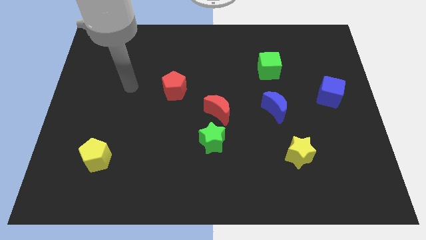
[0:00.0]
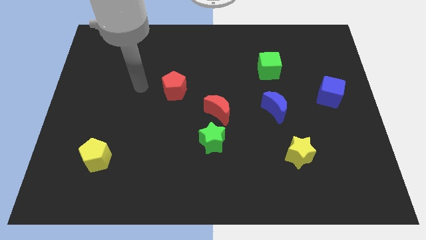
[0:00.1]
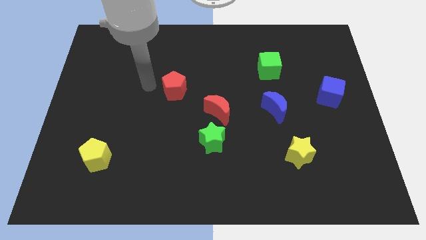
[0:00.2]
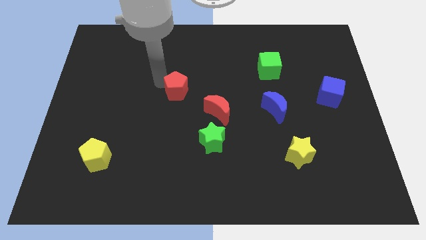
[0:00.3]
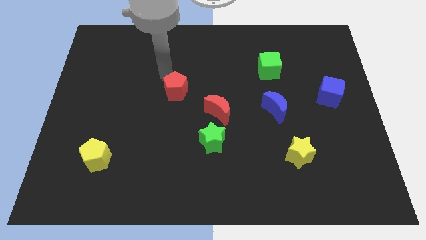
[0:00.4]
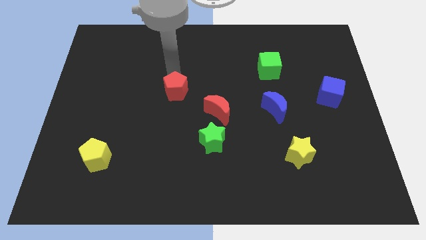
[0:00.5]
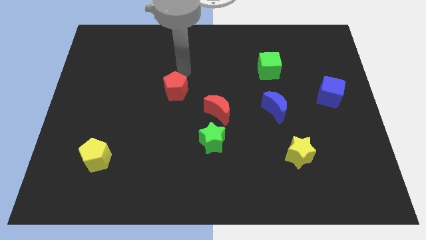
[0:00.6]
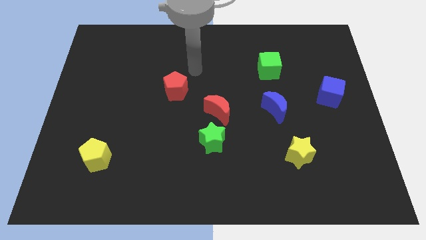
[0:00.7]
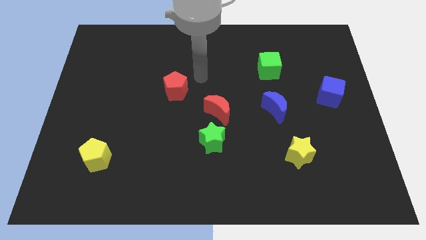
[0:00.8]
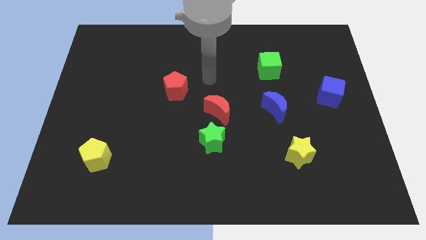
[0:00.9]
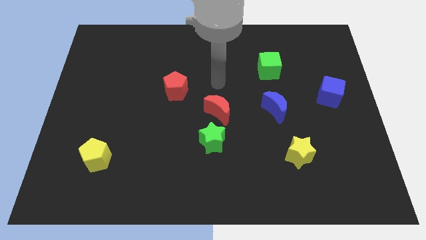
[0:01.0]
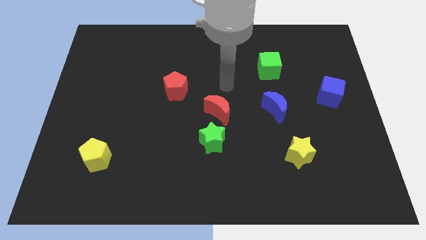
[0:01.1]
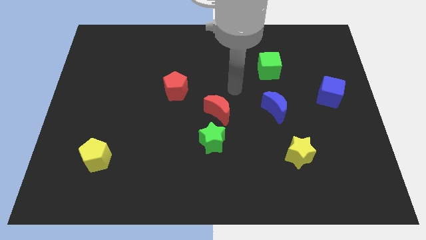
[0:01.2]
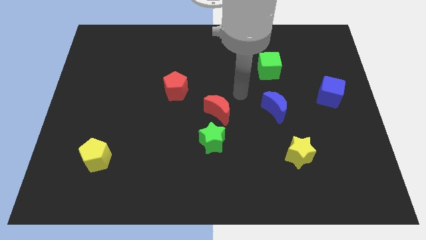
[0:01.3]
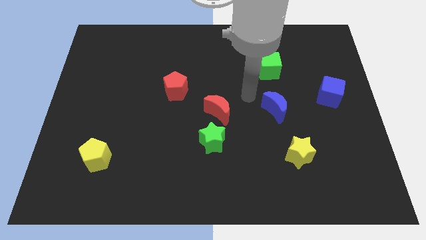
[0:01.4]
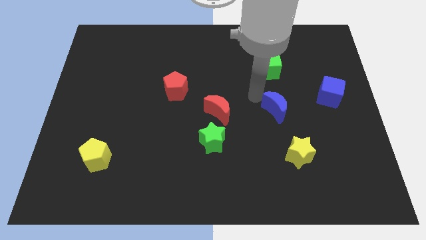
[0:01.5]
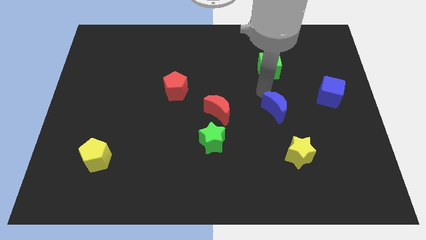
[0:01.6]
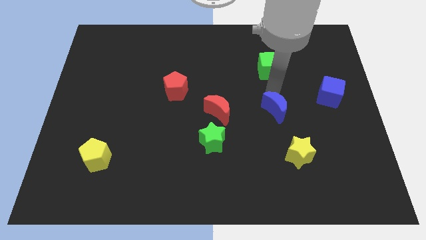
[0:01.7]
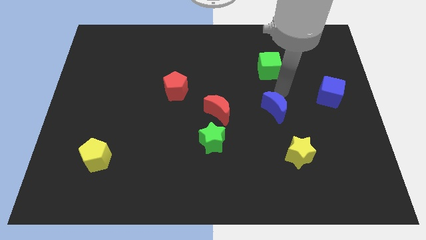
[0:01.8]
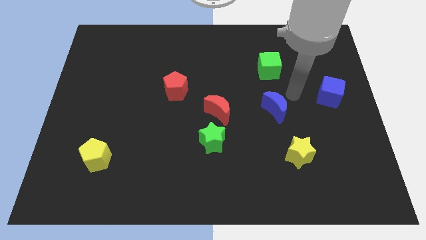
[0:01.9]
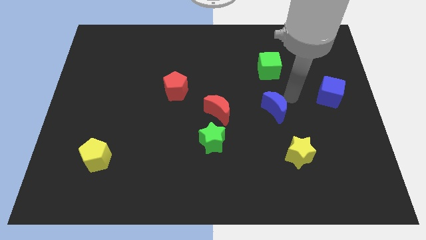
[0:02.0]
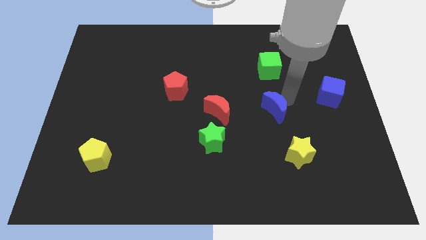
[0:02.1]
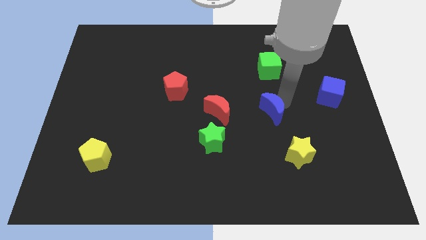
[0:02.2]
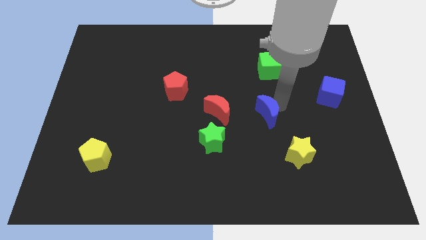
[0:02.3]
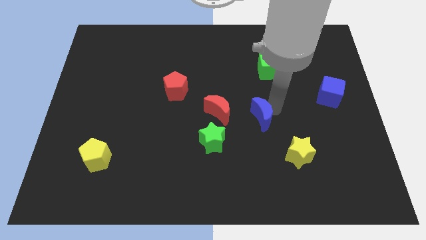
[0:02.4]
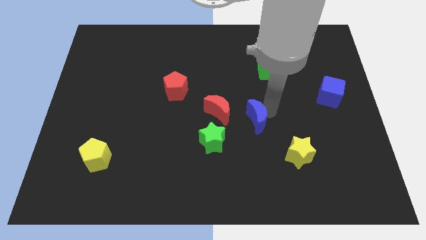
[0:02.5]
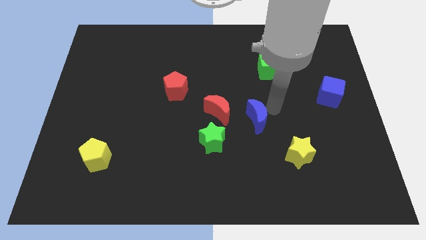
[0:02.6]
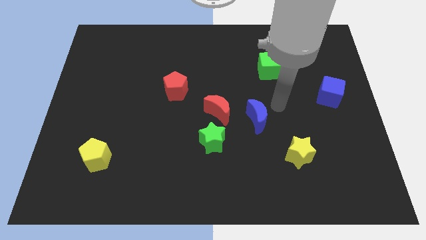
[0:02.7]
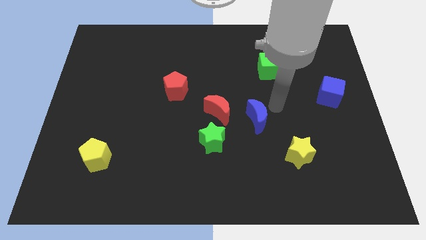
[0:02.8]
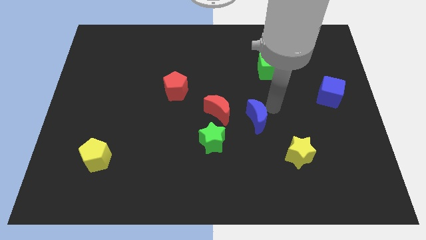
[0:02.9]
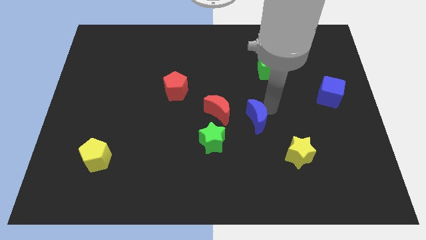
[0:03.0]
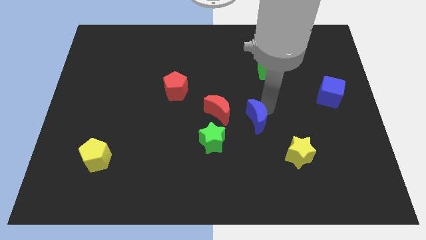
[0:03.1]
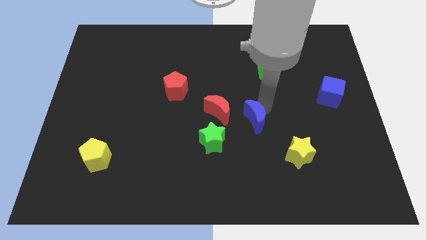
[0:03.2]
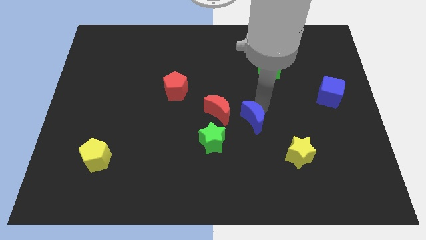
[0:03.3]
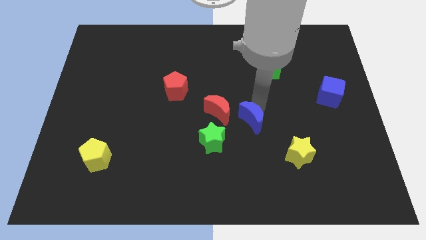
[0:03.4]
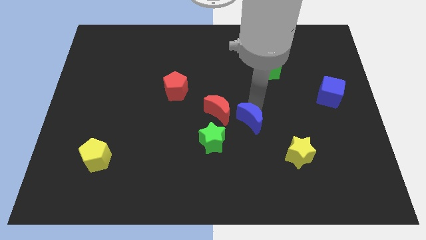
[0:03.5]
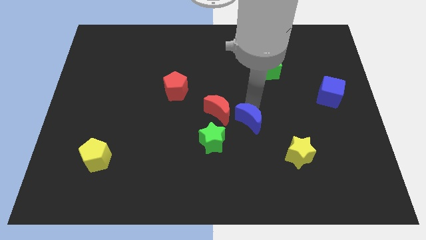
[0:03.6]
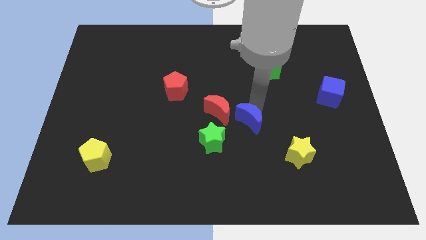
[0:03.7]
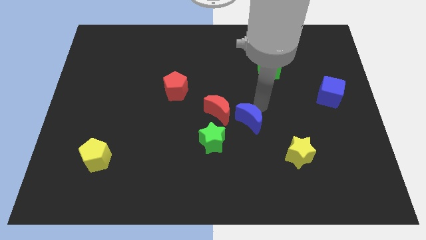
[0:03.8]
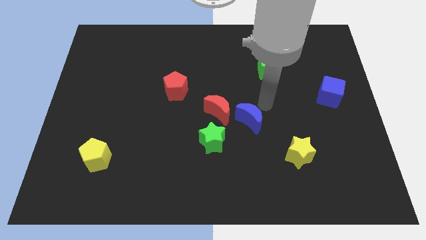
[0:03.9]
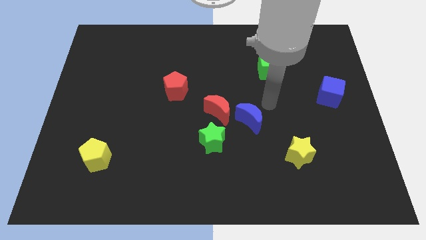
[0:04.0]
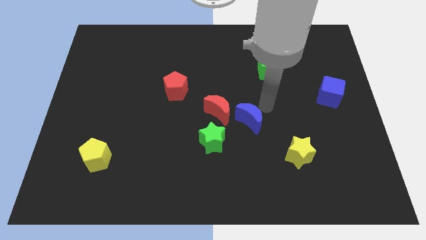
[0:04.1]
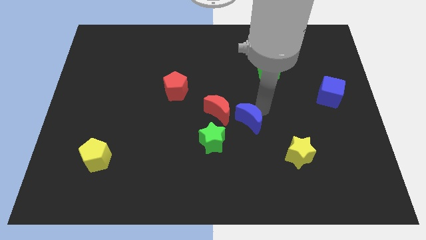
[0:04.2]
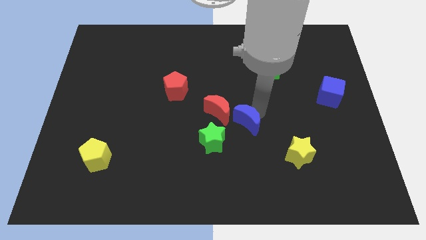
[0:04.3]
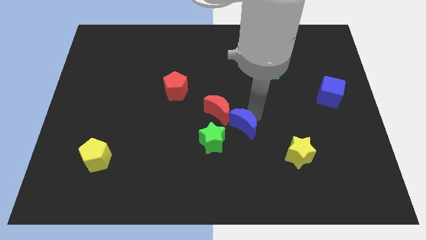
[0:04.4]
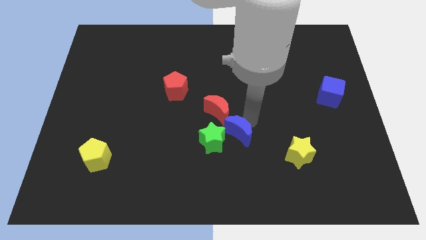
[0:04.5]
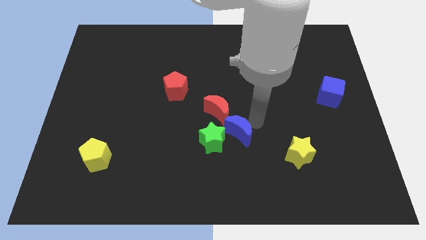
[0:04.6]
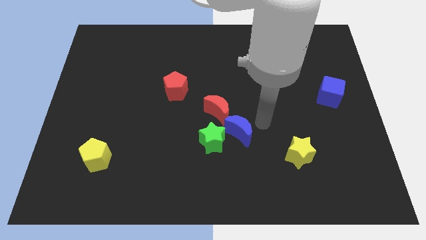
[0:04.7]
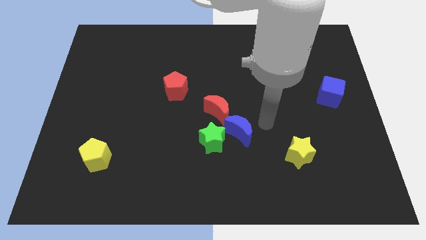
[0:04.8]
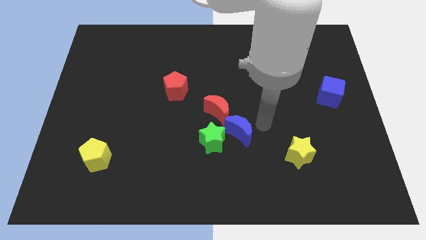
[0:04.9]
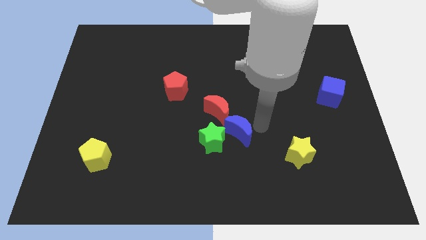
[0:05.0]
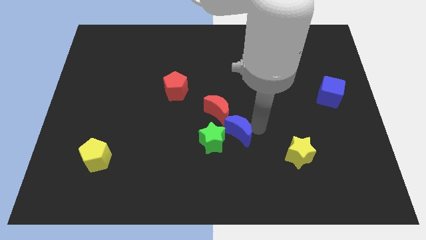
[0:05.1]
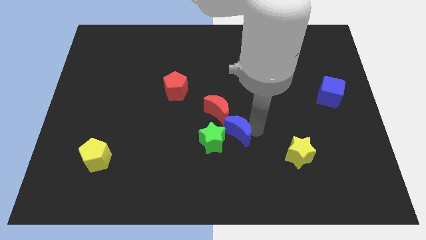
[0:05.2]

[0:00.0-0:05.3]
put the blue moon next to the green star

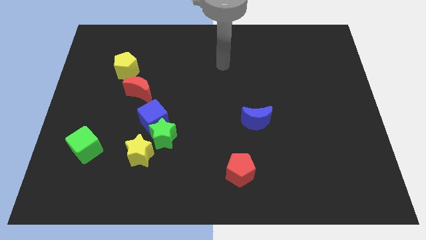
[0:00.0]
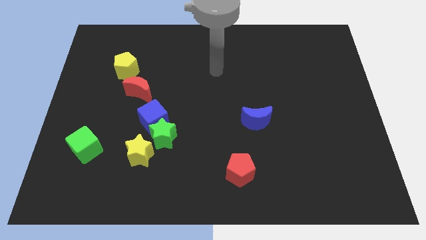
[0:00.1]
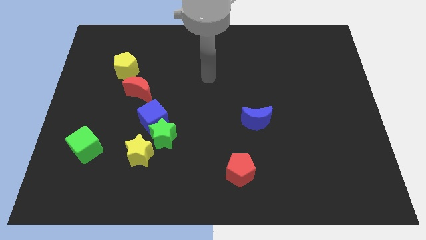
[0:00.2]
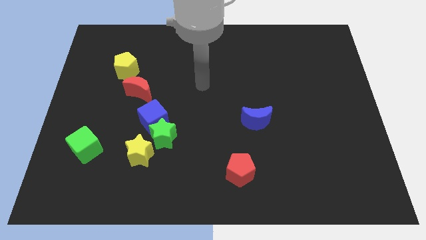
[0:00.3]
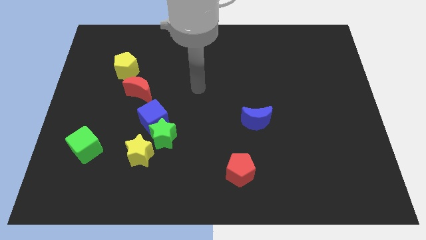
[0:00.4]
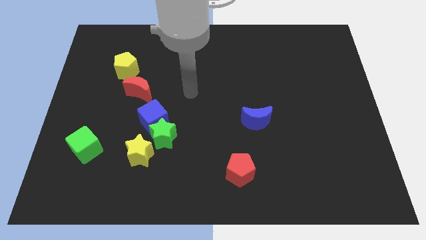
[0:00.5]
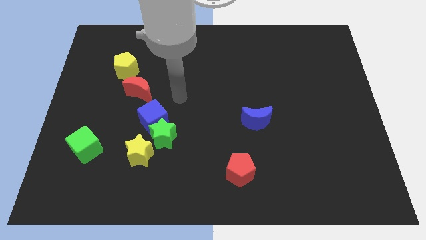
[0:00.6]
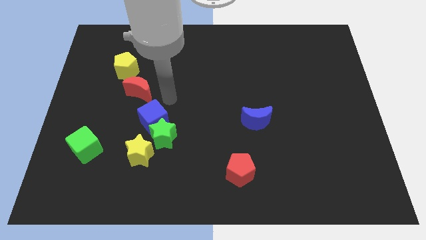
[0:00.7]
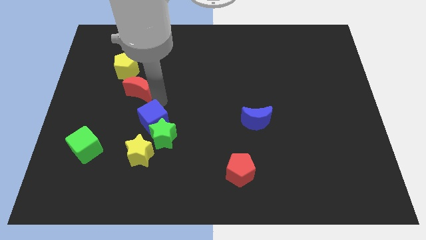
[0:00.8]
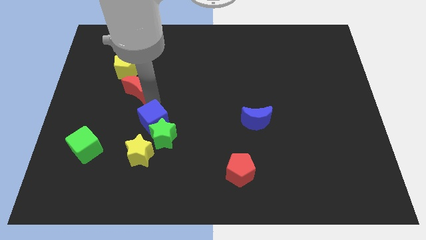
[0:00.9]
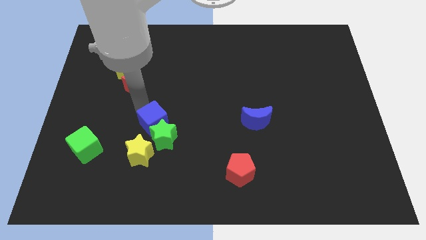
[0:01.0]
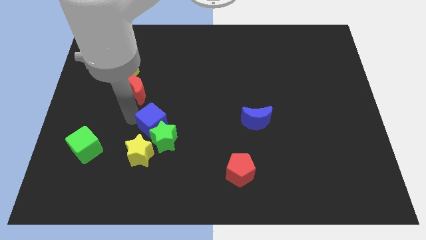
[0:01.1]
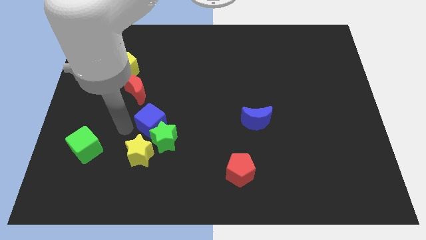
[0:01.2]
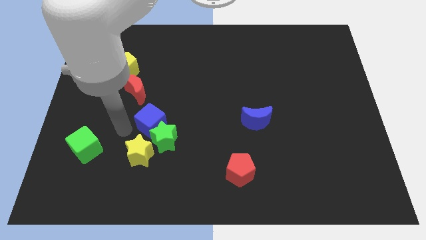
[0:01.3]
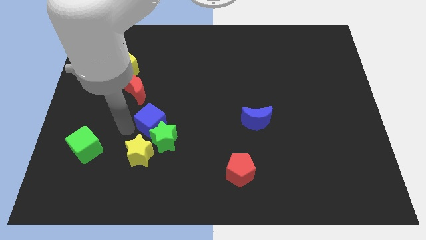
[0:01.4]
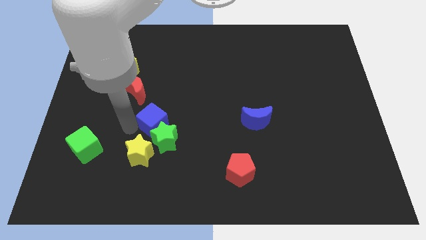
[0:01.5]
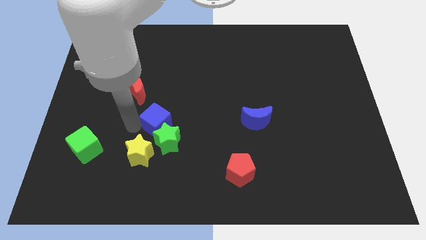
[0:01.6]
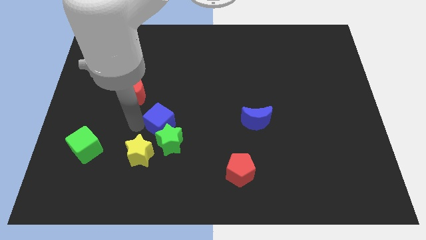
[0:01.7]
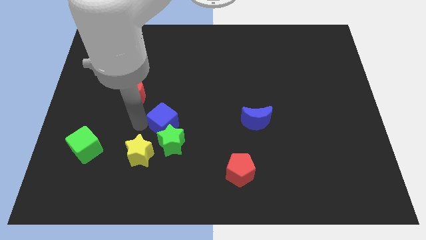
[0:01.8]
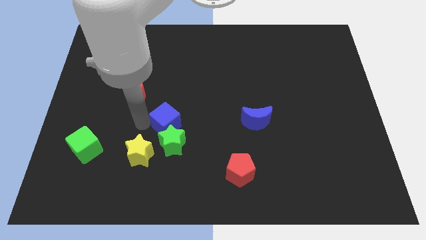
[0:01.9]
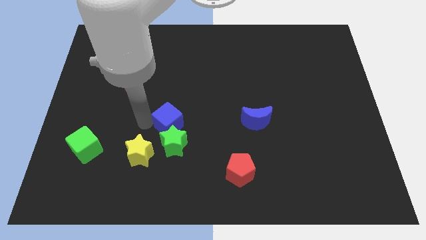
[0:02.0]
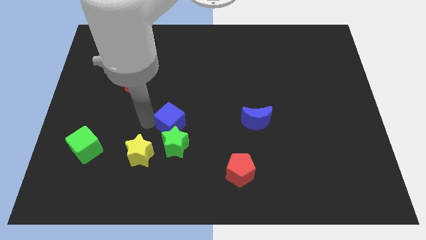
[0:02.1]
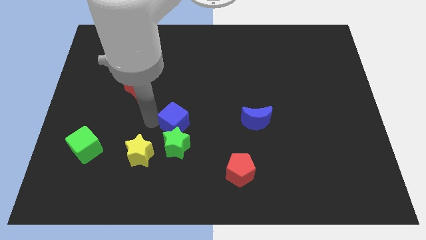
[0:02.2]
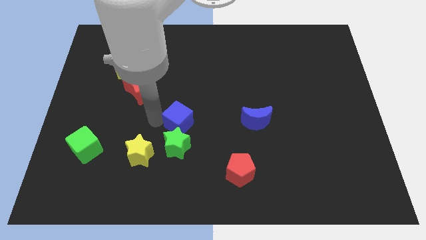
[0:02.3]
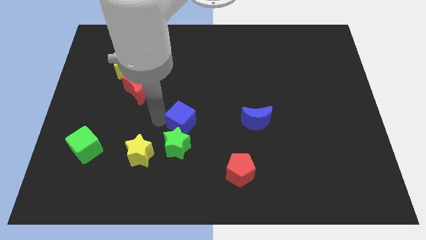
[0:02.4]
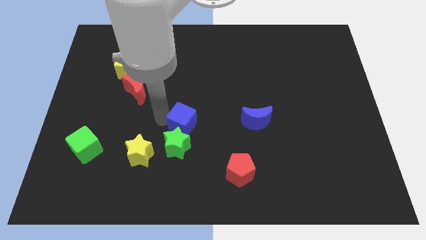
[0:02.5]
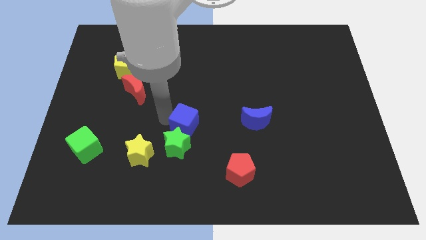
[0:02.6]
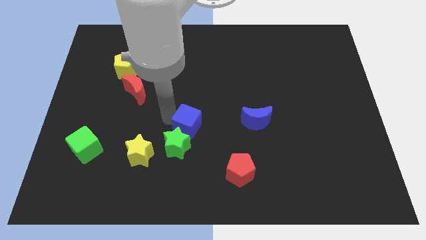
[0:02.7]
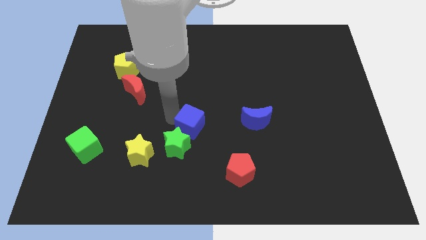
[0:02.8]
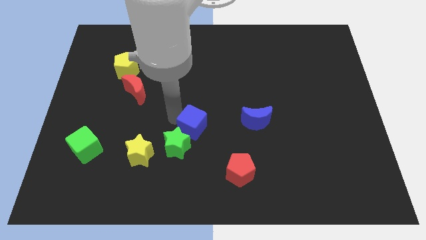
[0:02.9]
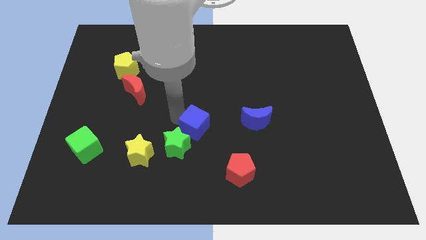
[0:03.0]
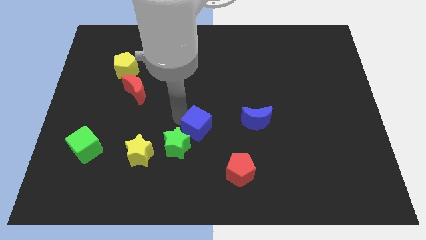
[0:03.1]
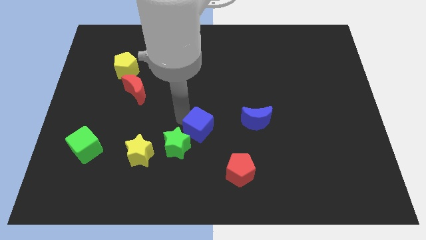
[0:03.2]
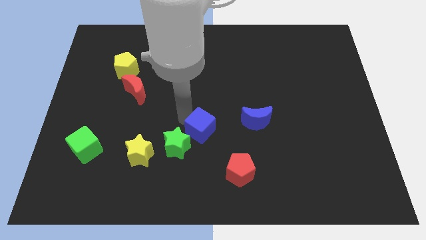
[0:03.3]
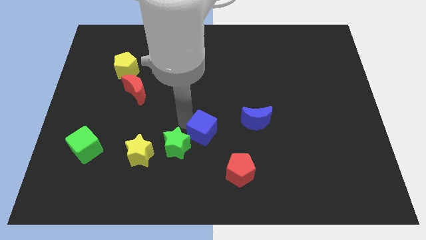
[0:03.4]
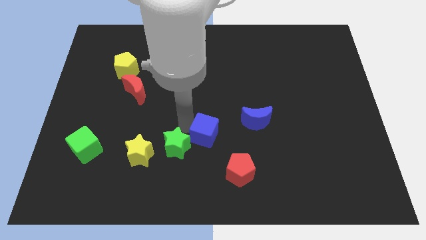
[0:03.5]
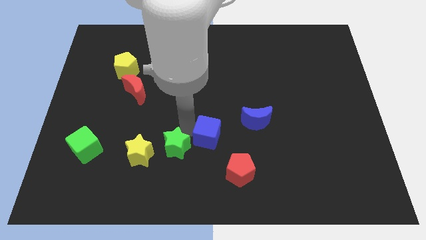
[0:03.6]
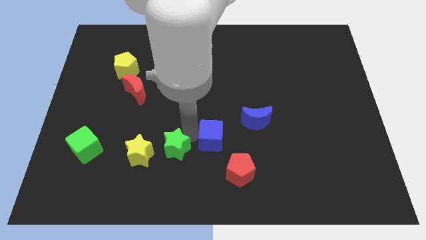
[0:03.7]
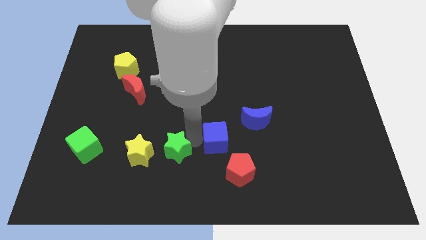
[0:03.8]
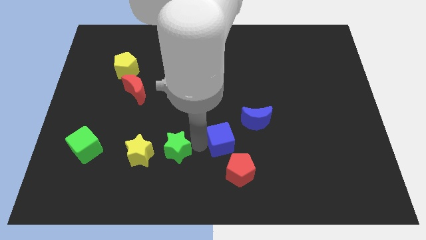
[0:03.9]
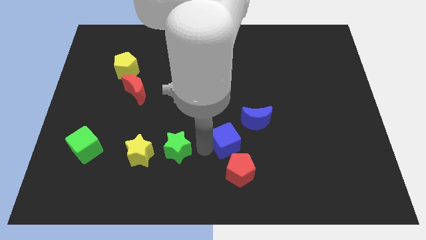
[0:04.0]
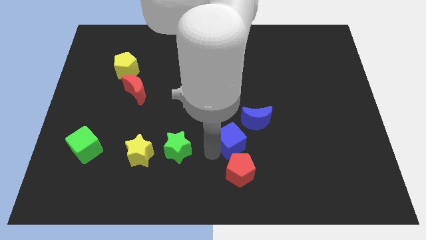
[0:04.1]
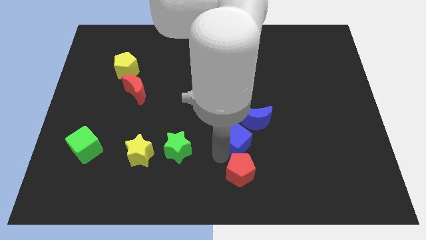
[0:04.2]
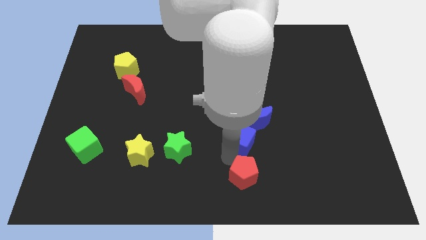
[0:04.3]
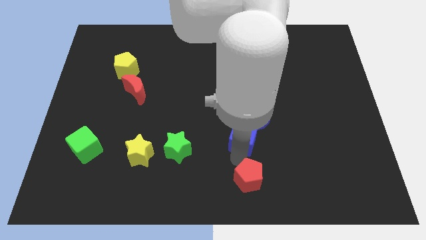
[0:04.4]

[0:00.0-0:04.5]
slide the blue cube to the blue moon
